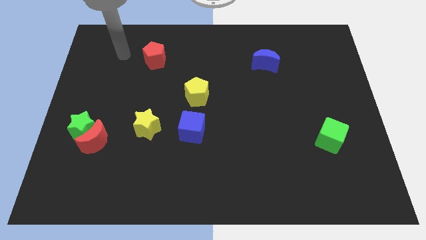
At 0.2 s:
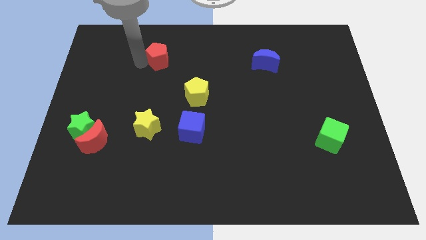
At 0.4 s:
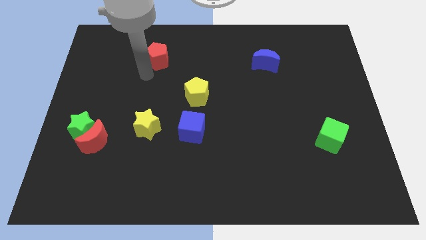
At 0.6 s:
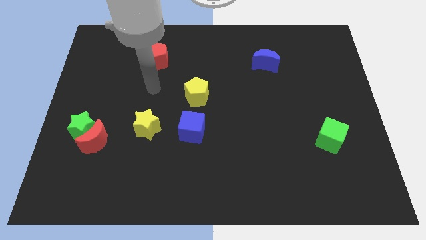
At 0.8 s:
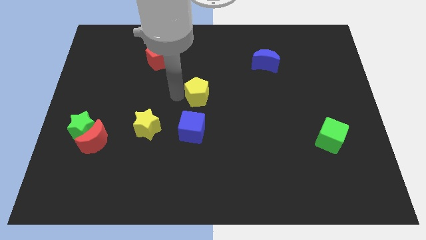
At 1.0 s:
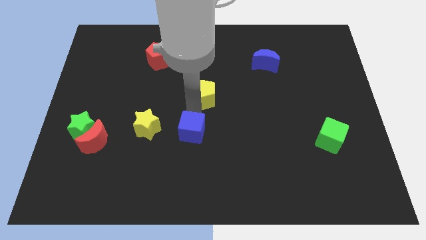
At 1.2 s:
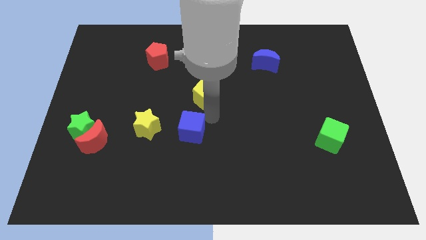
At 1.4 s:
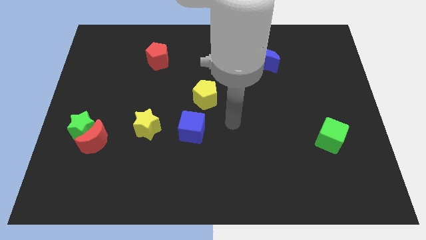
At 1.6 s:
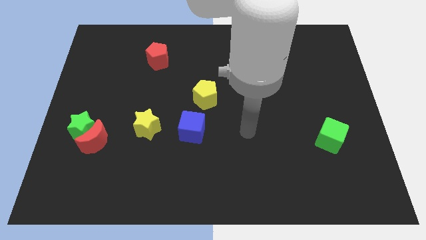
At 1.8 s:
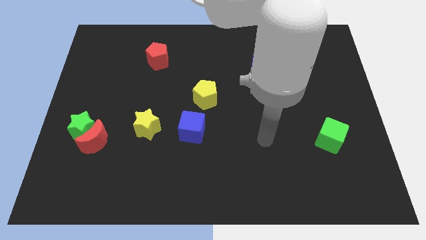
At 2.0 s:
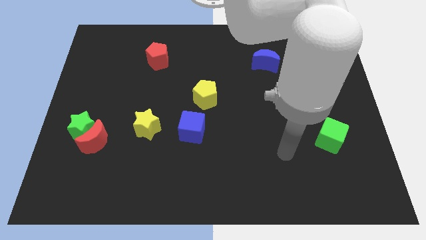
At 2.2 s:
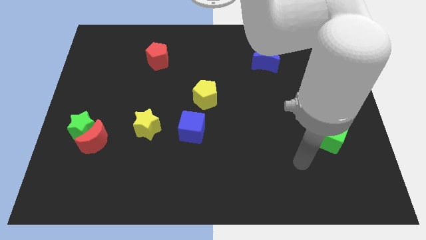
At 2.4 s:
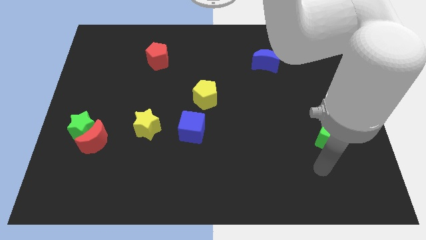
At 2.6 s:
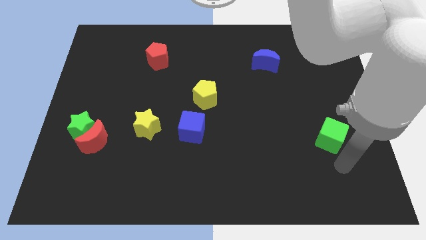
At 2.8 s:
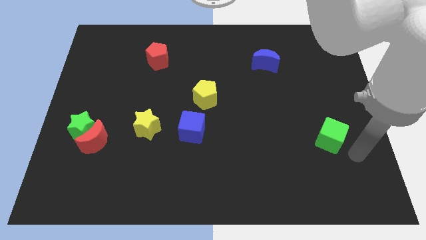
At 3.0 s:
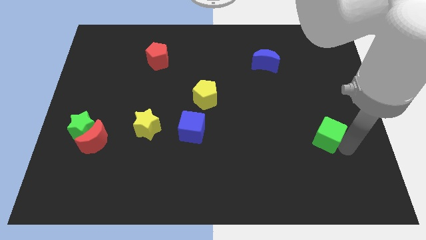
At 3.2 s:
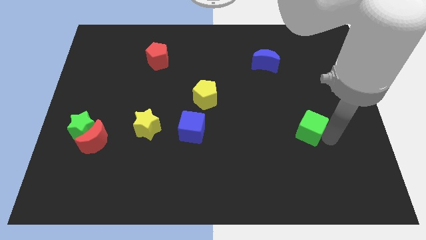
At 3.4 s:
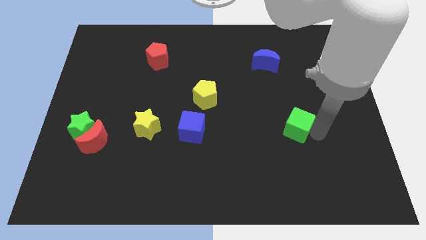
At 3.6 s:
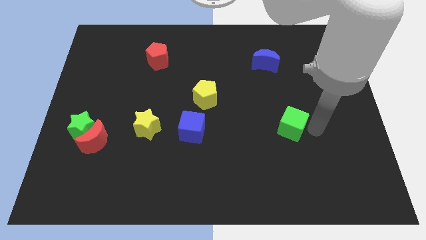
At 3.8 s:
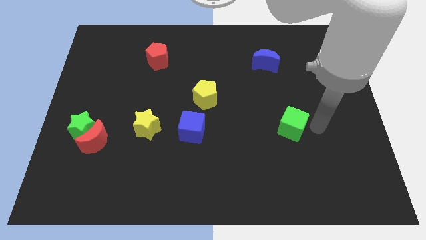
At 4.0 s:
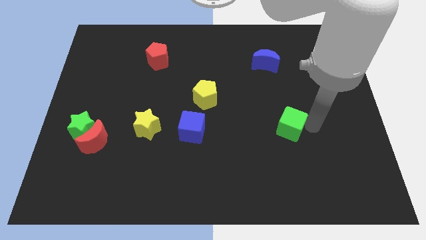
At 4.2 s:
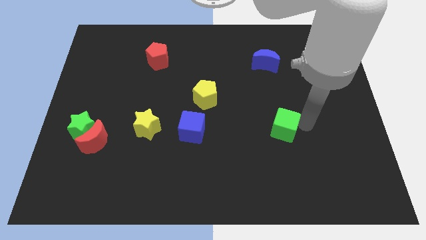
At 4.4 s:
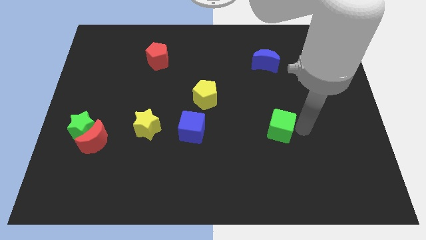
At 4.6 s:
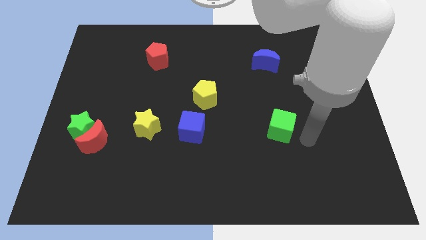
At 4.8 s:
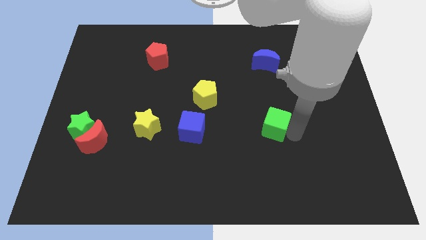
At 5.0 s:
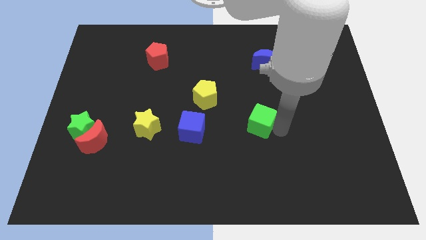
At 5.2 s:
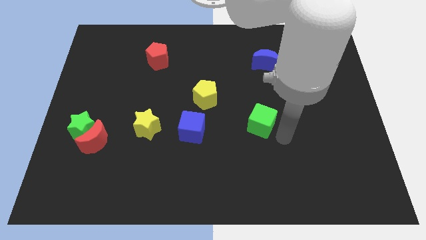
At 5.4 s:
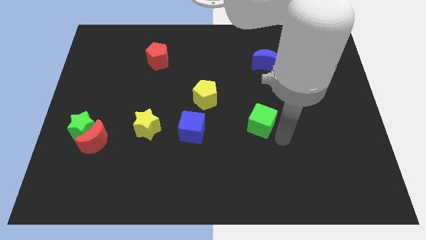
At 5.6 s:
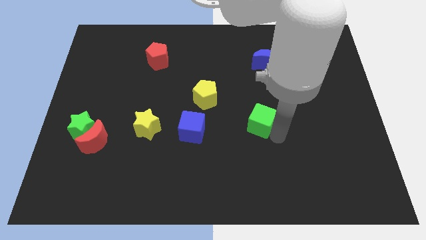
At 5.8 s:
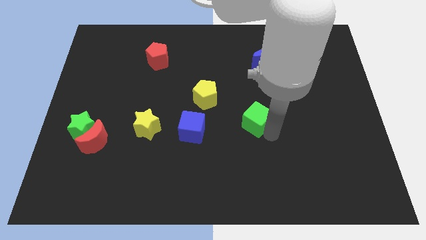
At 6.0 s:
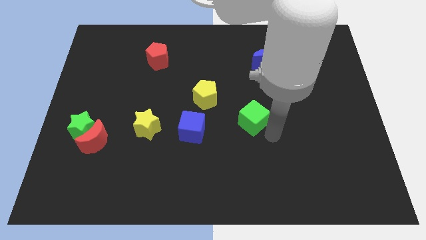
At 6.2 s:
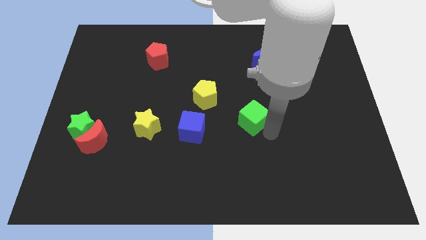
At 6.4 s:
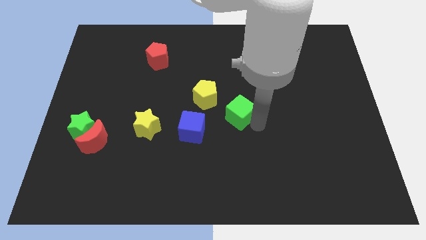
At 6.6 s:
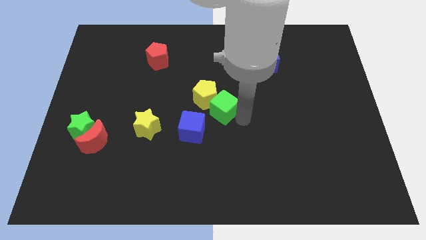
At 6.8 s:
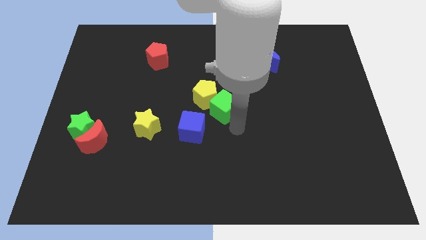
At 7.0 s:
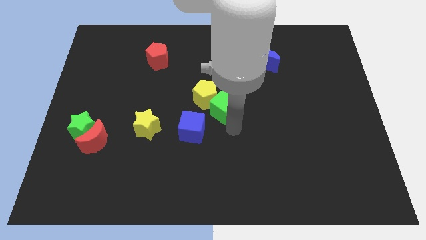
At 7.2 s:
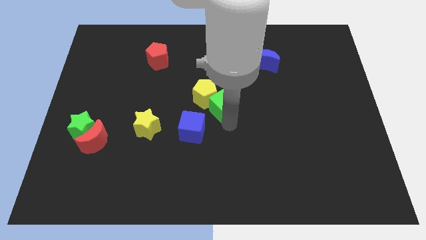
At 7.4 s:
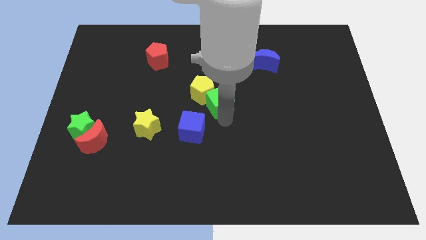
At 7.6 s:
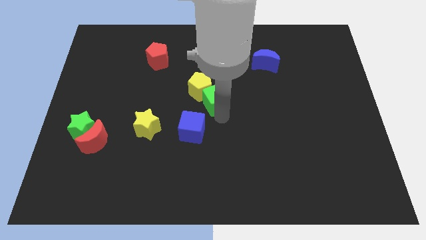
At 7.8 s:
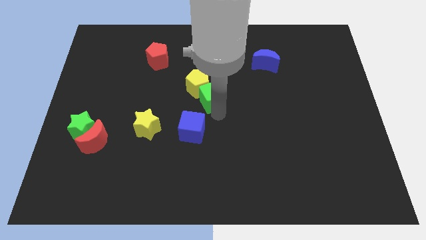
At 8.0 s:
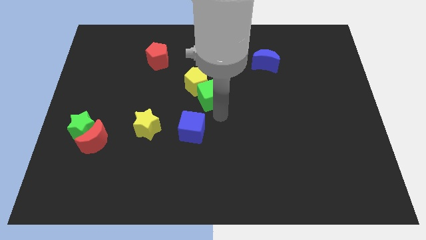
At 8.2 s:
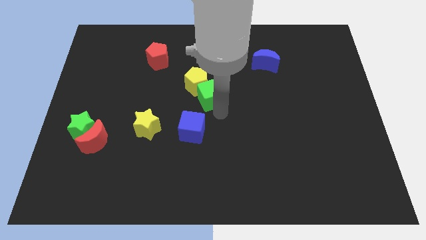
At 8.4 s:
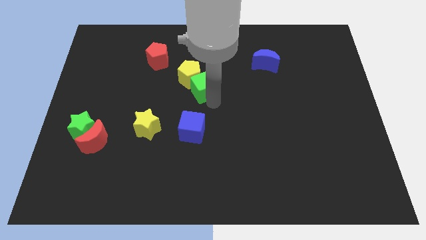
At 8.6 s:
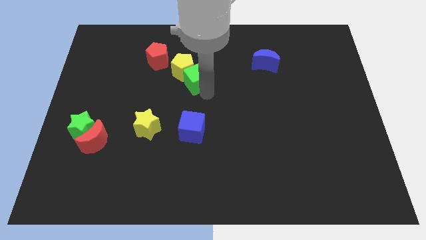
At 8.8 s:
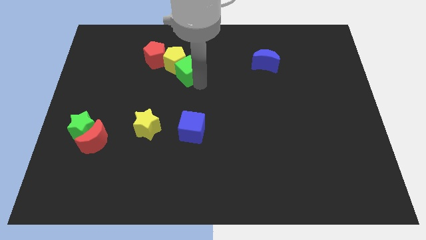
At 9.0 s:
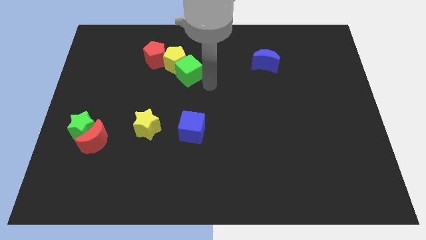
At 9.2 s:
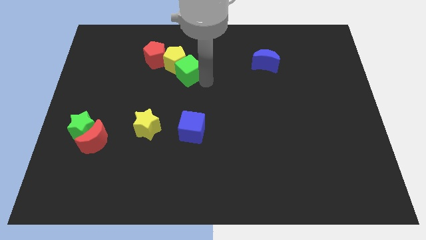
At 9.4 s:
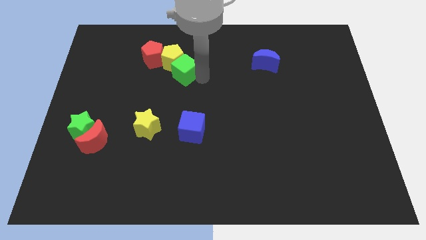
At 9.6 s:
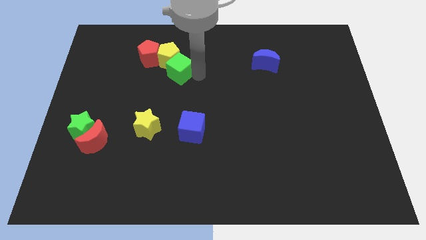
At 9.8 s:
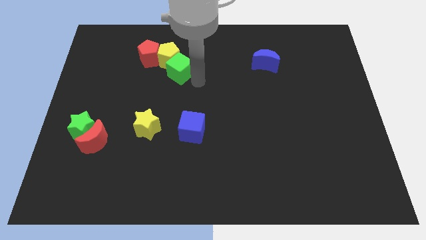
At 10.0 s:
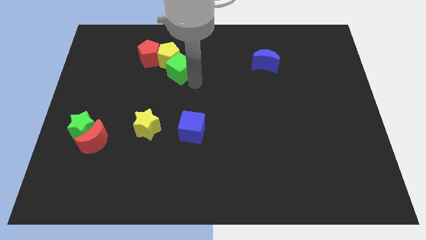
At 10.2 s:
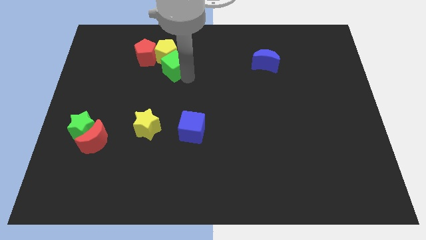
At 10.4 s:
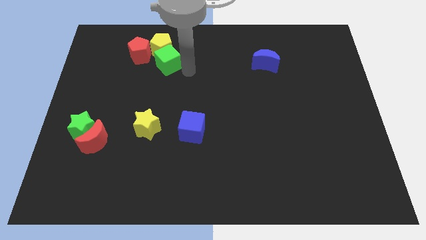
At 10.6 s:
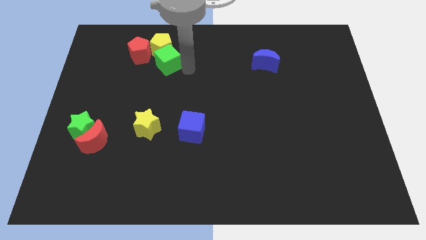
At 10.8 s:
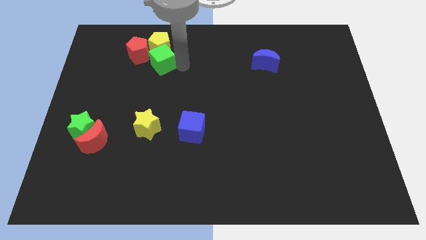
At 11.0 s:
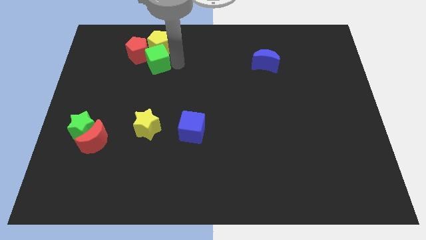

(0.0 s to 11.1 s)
slide the green cube to the red pentagon

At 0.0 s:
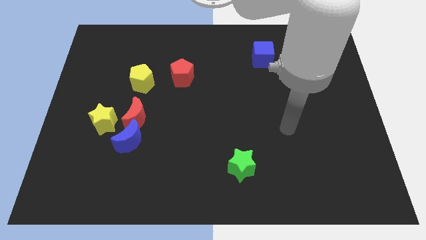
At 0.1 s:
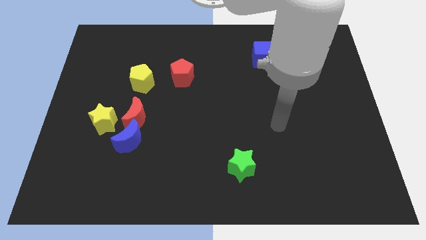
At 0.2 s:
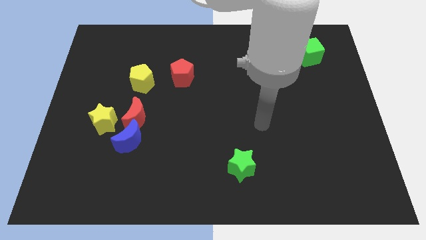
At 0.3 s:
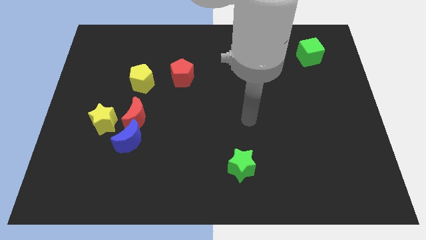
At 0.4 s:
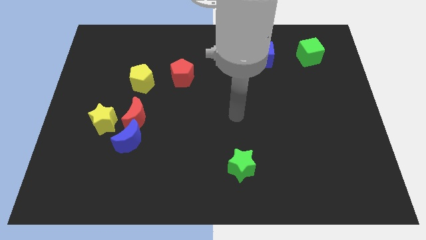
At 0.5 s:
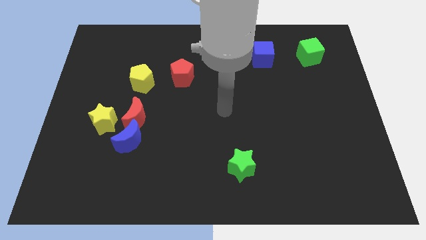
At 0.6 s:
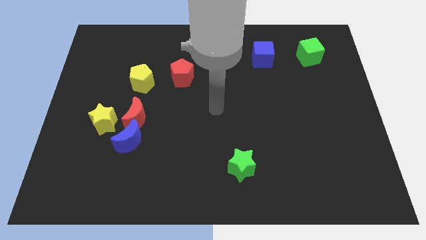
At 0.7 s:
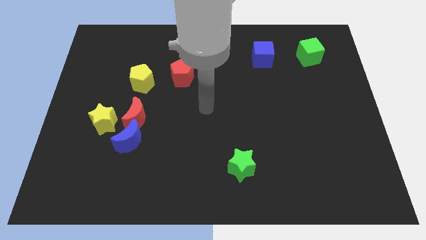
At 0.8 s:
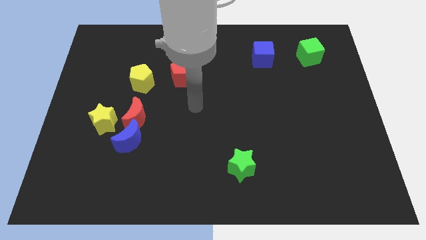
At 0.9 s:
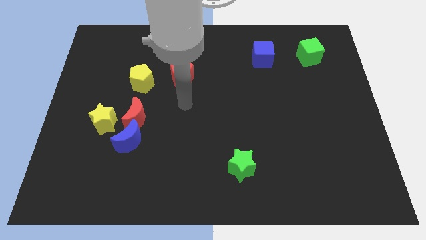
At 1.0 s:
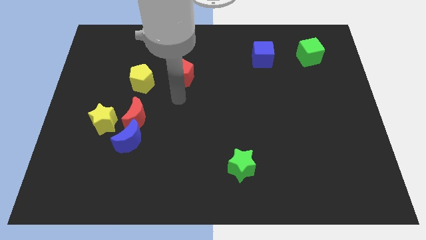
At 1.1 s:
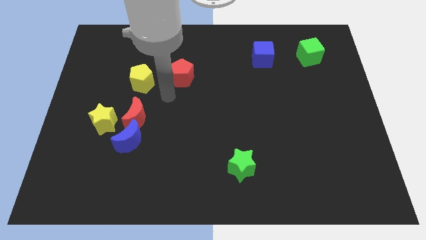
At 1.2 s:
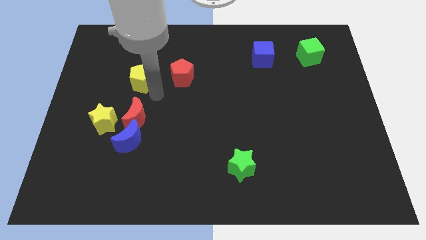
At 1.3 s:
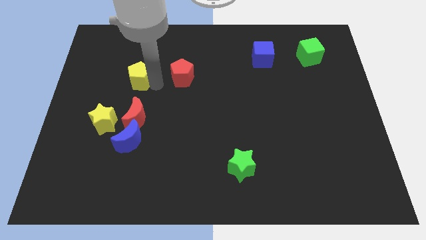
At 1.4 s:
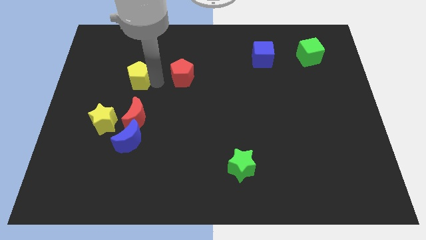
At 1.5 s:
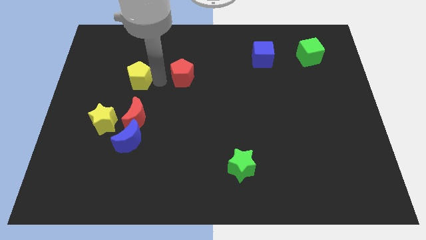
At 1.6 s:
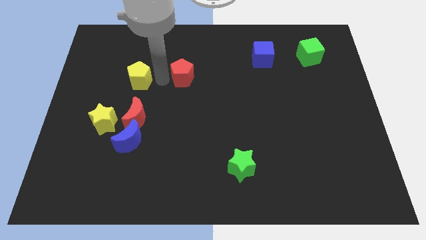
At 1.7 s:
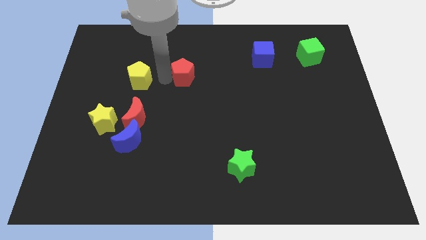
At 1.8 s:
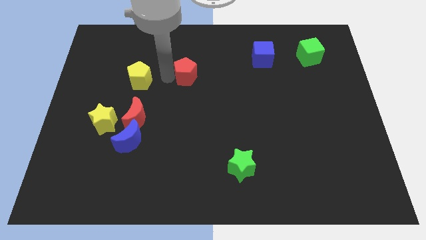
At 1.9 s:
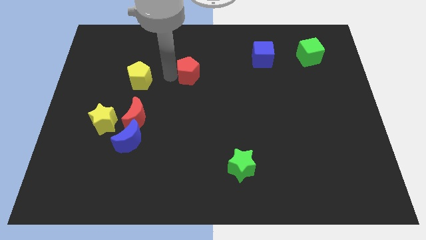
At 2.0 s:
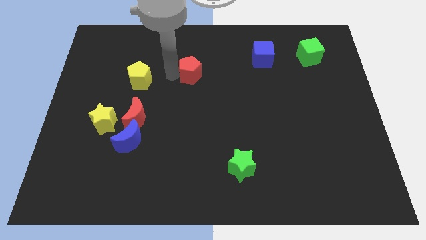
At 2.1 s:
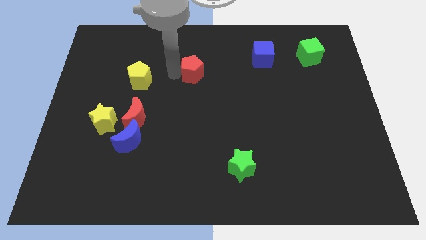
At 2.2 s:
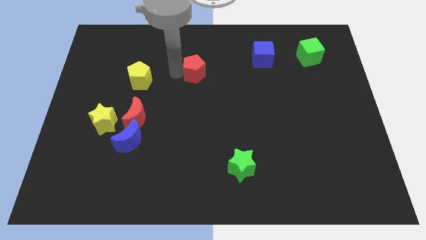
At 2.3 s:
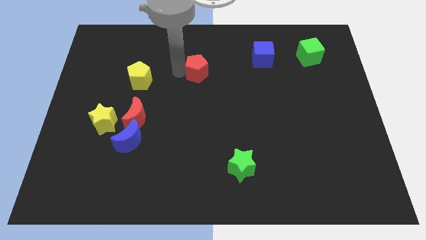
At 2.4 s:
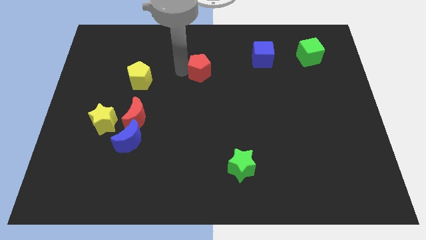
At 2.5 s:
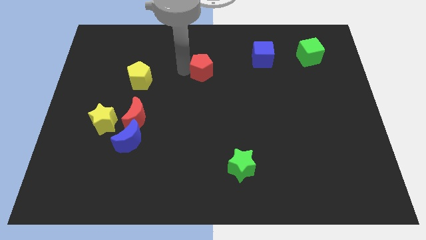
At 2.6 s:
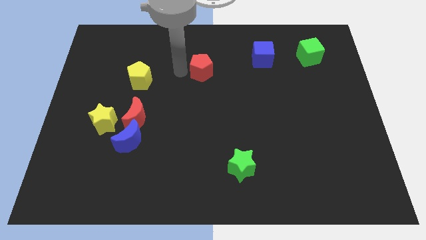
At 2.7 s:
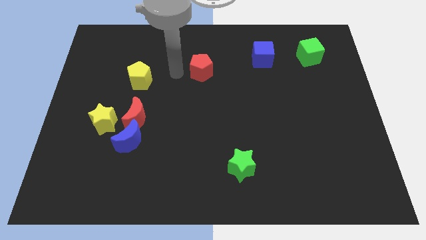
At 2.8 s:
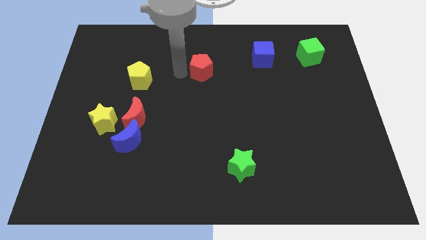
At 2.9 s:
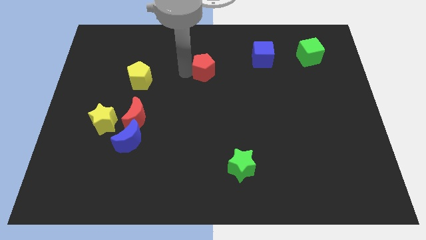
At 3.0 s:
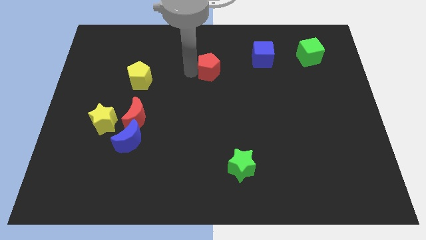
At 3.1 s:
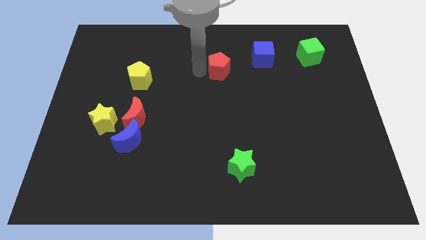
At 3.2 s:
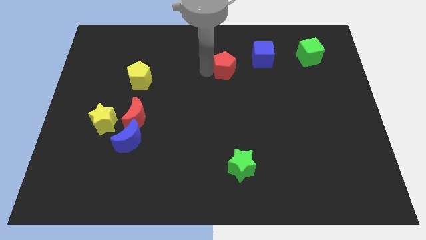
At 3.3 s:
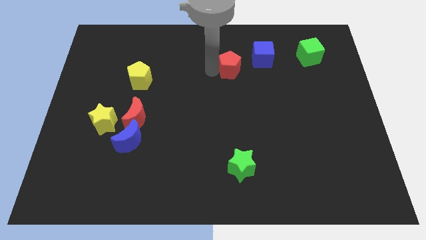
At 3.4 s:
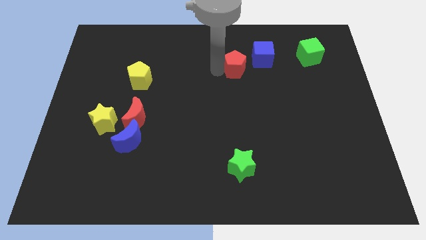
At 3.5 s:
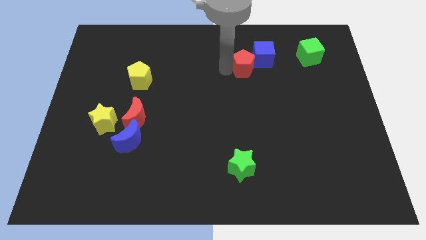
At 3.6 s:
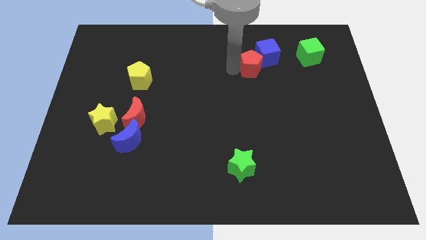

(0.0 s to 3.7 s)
put the red pentagon next to the blue cube
